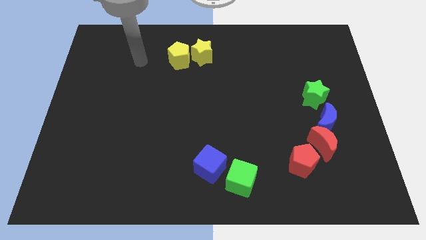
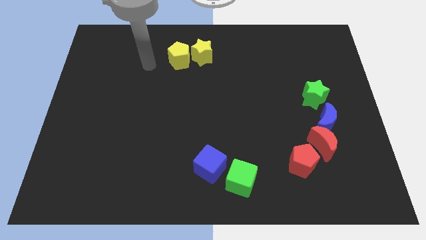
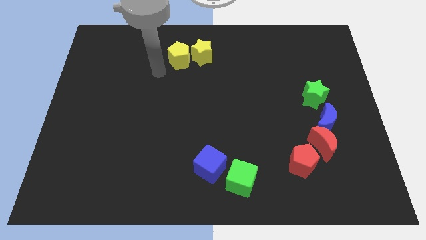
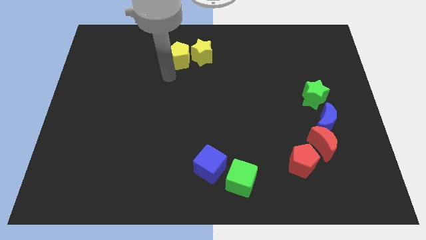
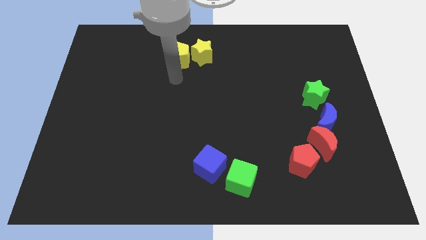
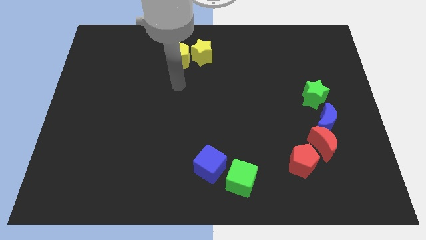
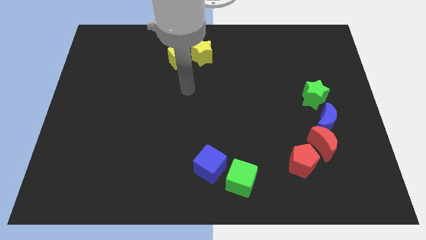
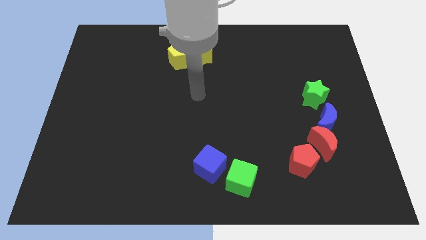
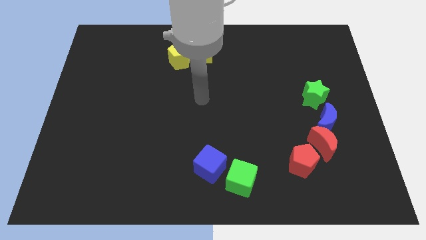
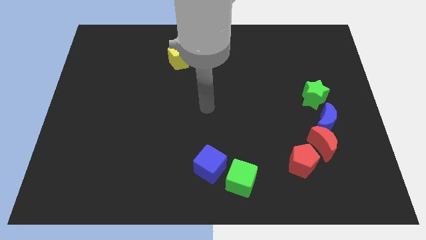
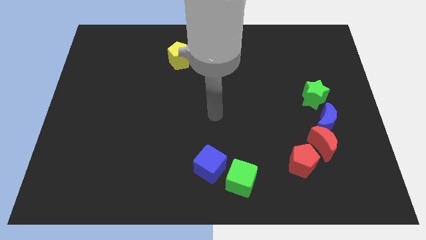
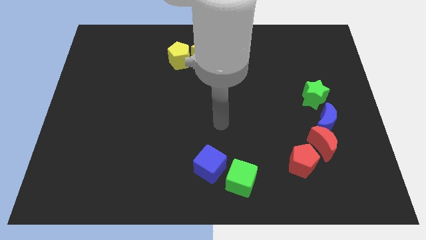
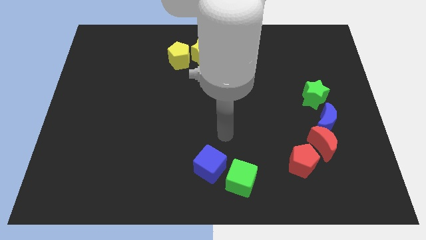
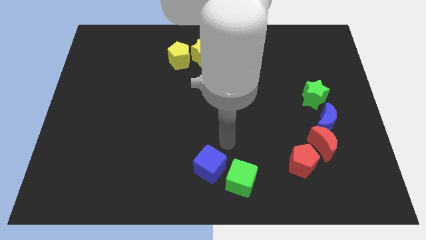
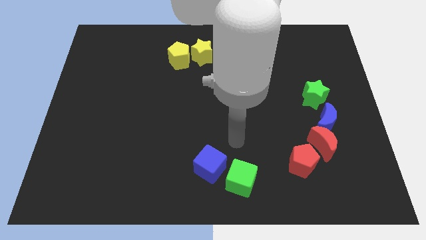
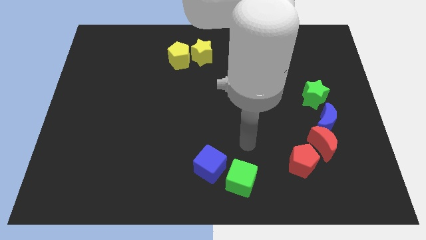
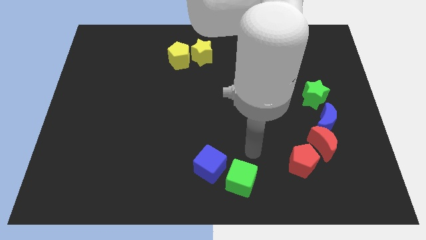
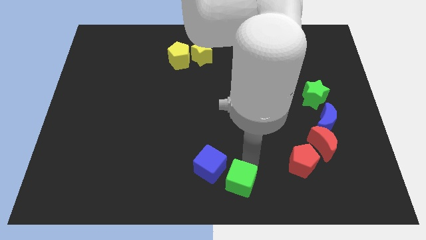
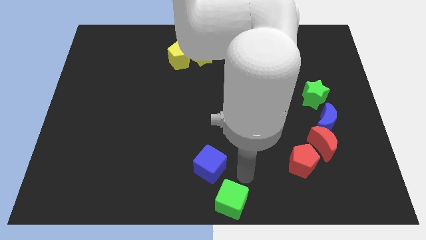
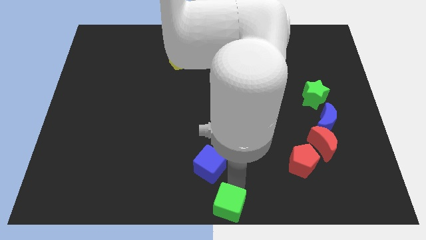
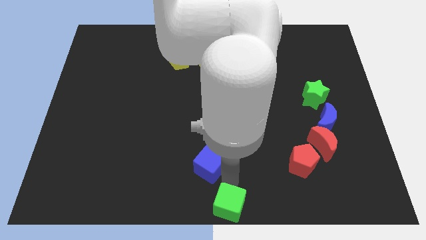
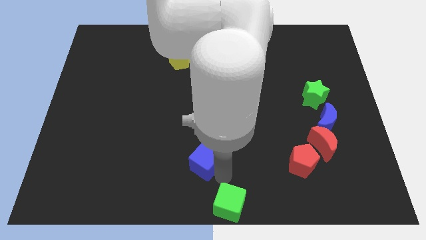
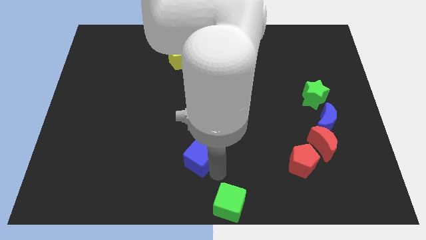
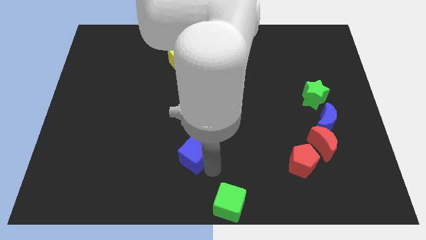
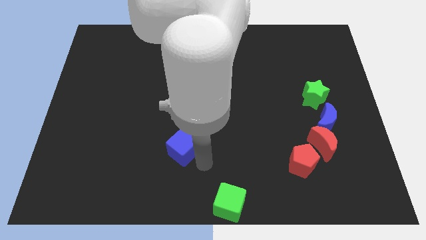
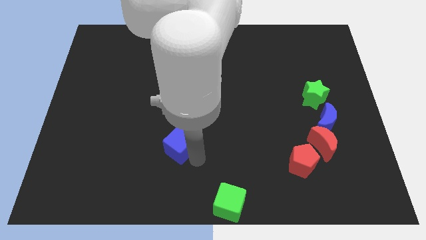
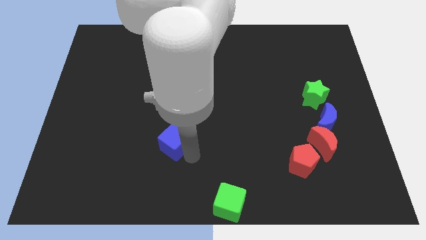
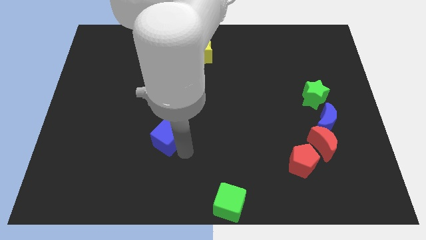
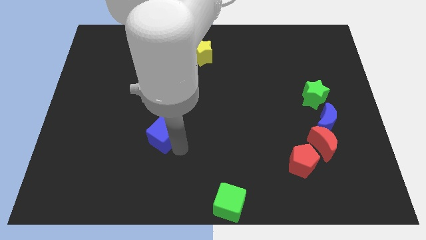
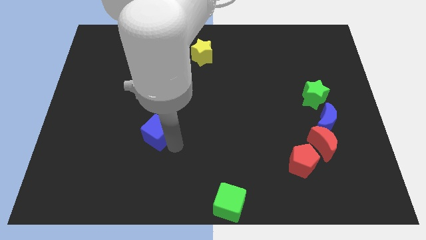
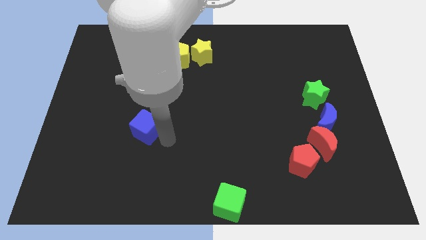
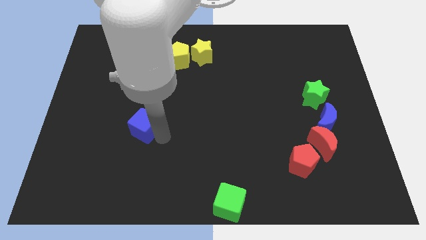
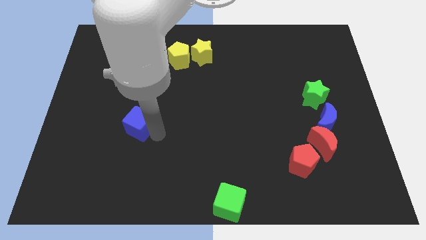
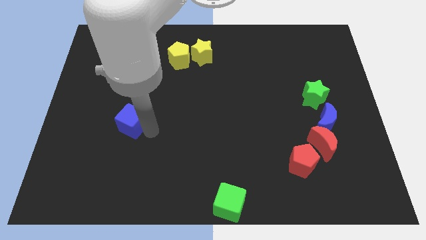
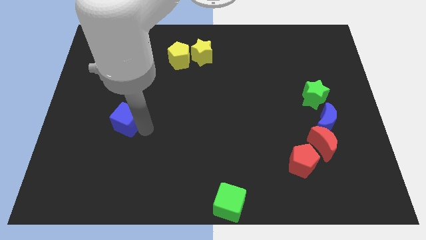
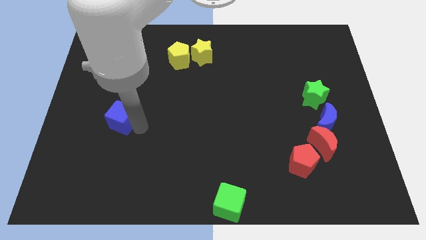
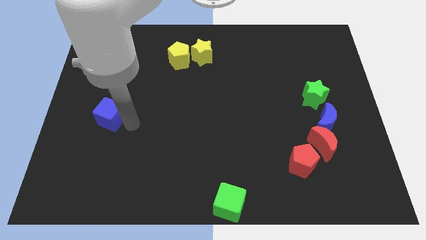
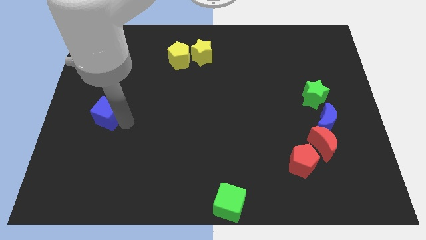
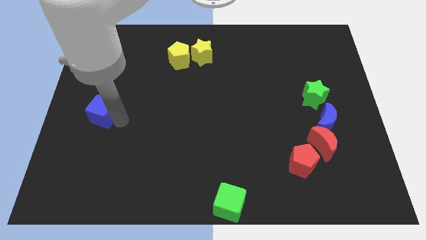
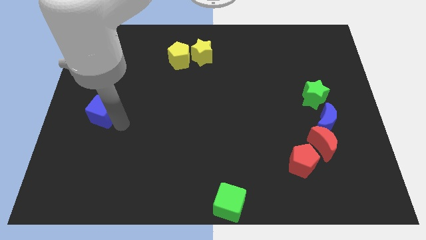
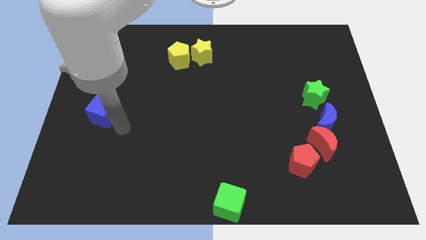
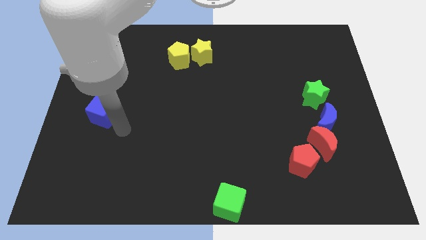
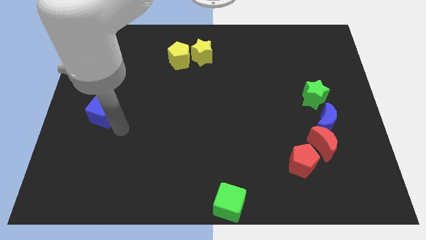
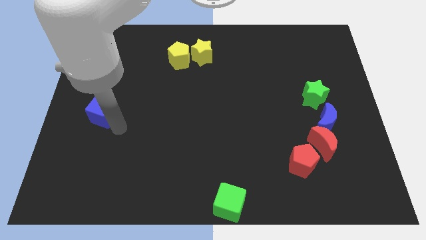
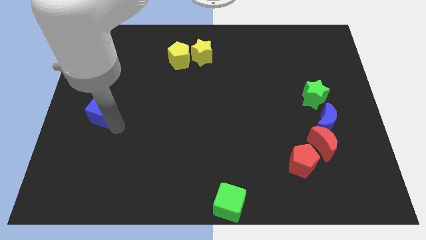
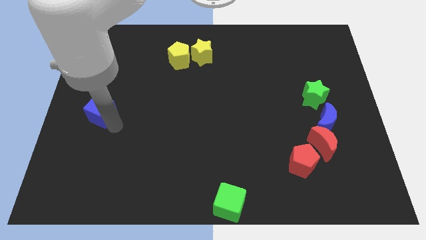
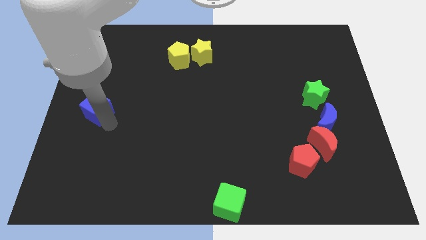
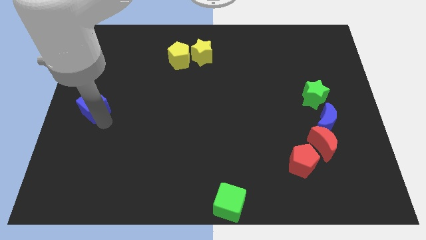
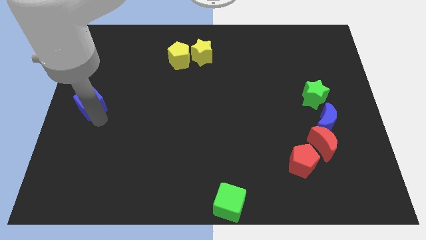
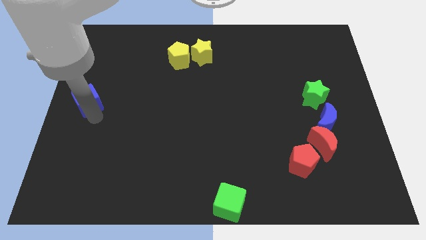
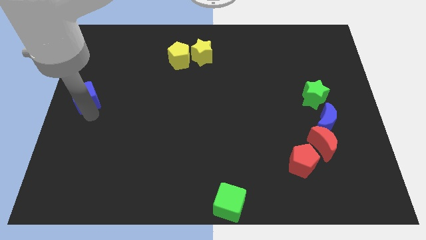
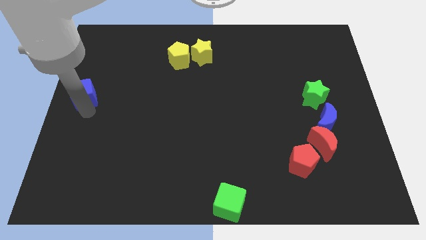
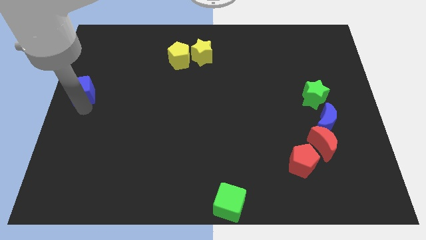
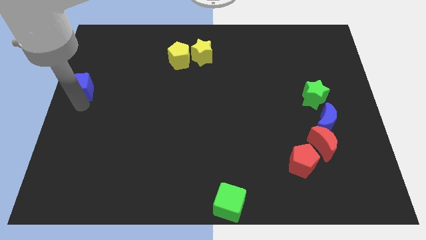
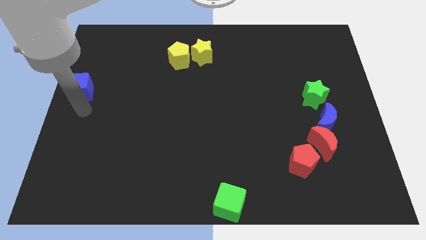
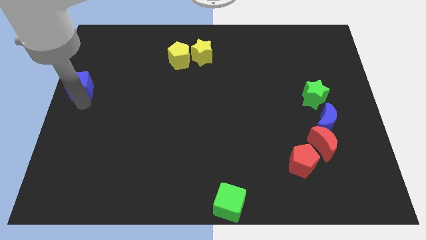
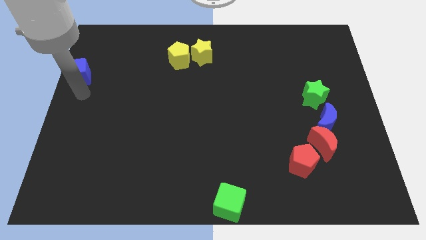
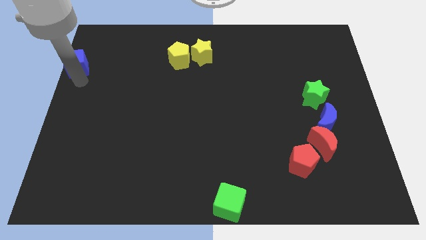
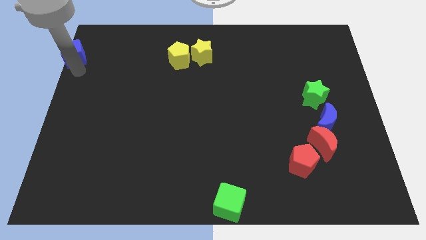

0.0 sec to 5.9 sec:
put the blue cube to the top left of the board
